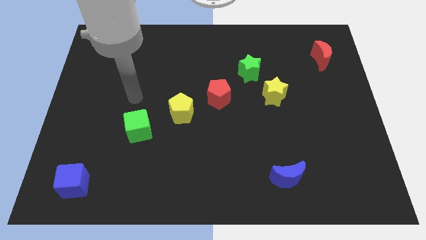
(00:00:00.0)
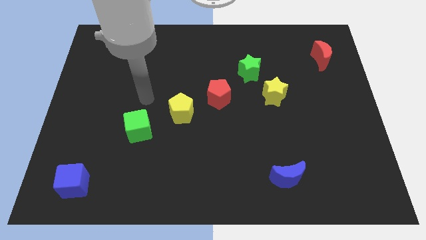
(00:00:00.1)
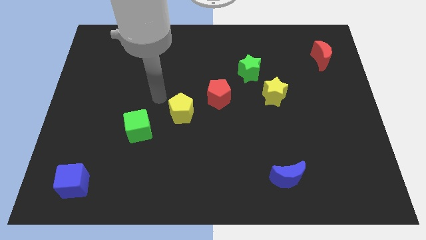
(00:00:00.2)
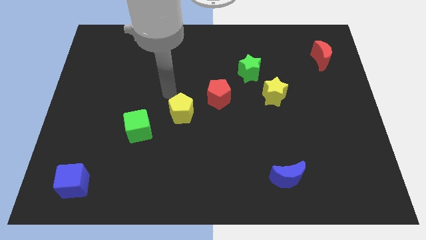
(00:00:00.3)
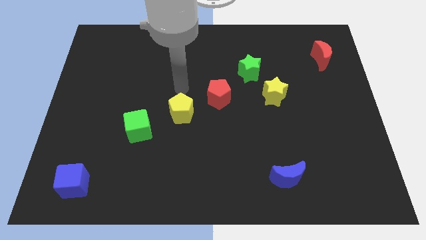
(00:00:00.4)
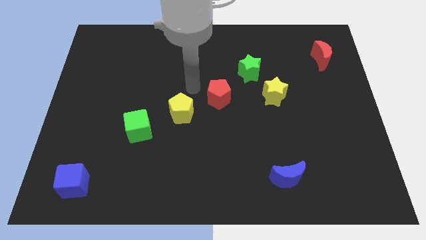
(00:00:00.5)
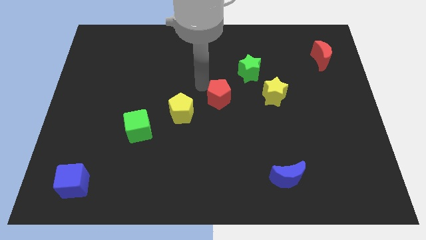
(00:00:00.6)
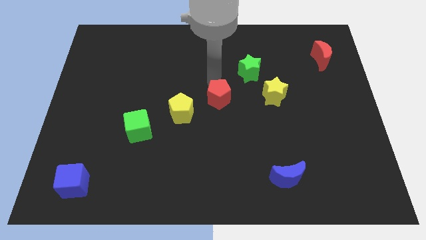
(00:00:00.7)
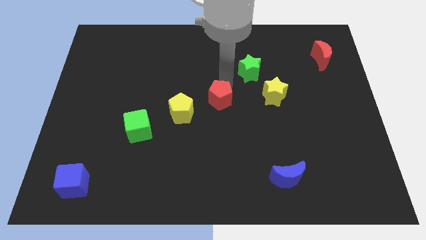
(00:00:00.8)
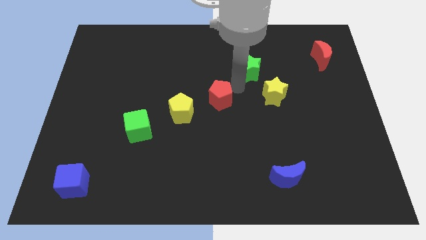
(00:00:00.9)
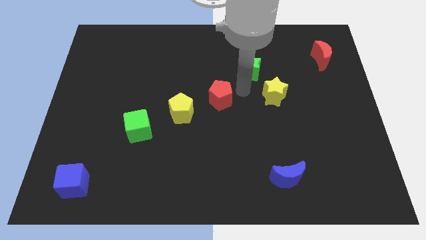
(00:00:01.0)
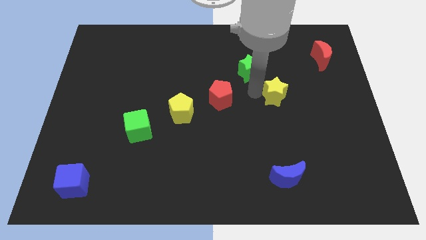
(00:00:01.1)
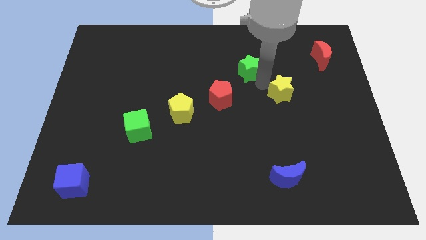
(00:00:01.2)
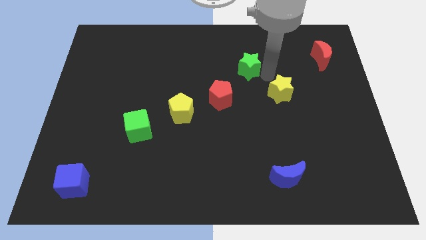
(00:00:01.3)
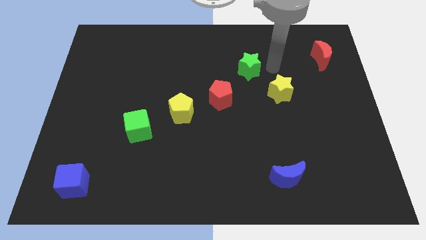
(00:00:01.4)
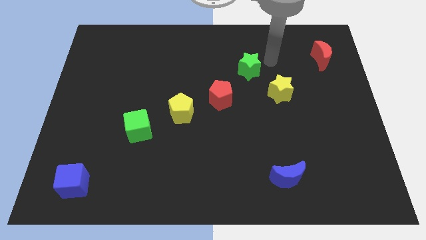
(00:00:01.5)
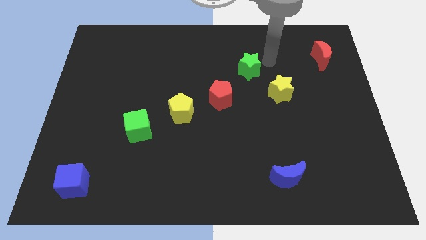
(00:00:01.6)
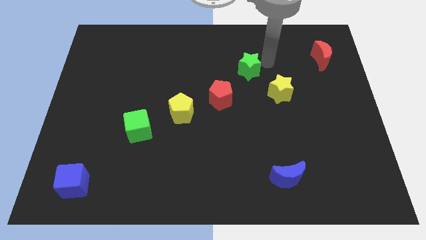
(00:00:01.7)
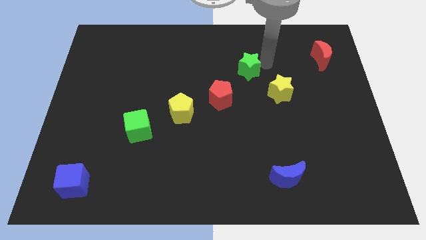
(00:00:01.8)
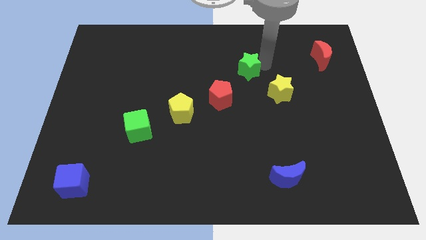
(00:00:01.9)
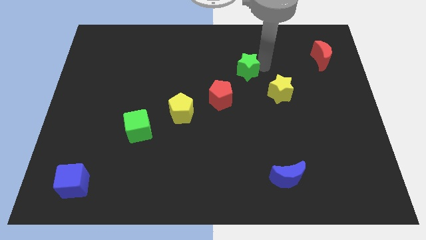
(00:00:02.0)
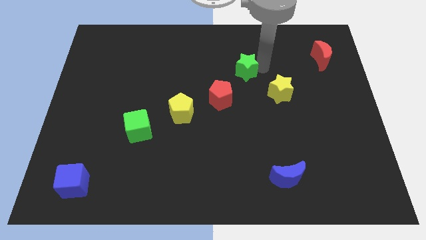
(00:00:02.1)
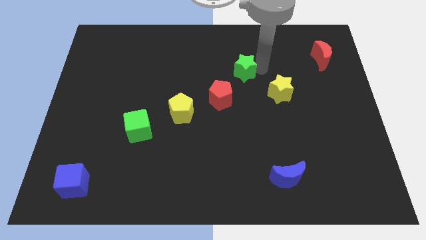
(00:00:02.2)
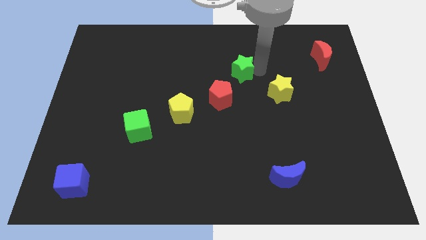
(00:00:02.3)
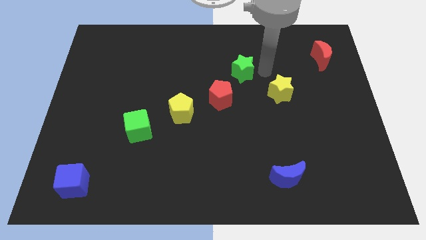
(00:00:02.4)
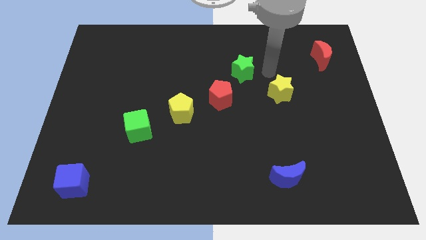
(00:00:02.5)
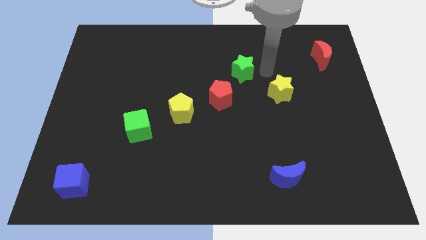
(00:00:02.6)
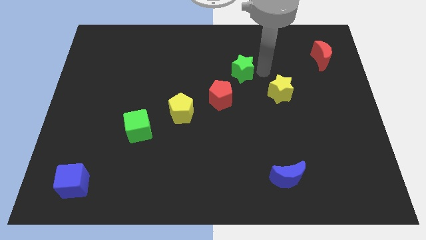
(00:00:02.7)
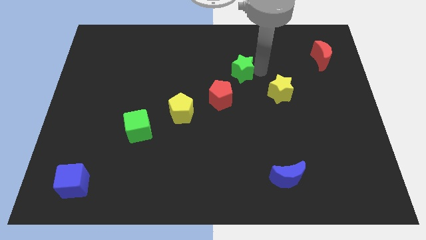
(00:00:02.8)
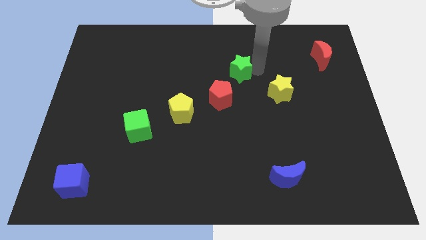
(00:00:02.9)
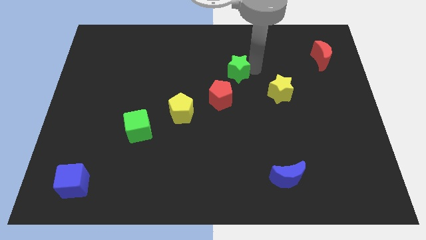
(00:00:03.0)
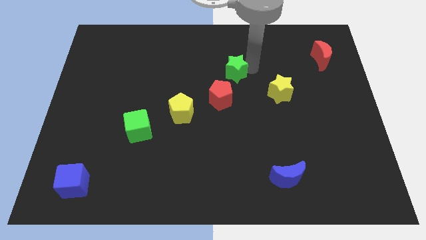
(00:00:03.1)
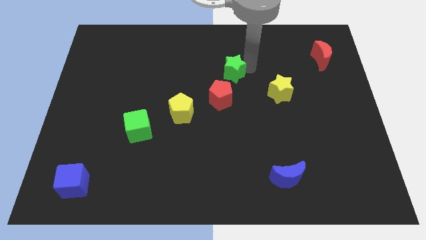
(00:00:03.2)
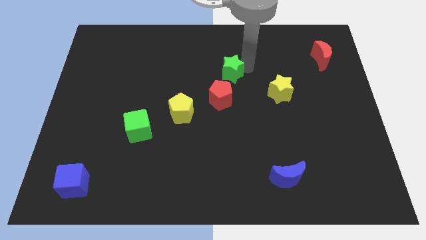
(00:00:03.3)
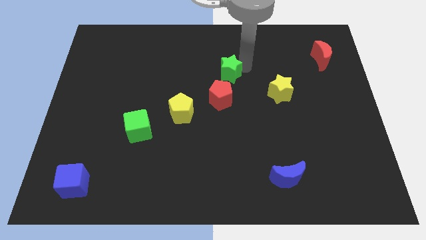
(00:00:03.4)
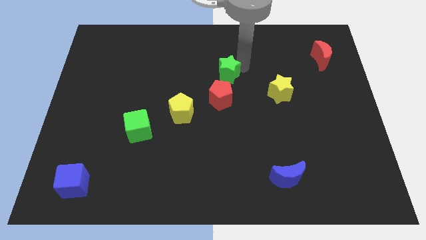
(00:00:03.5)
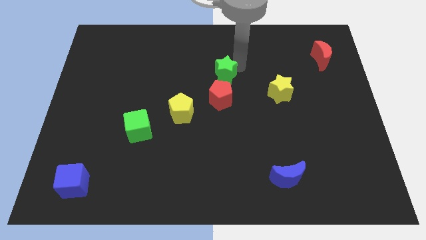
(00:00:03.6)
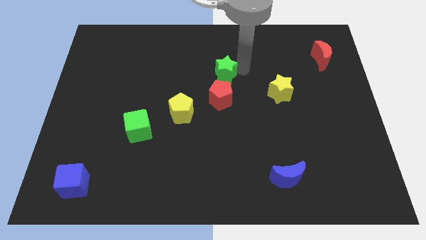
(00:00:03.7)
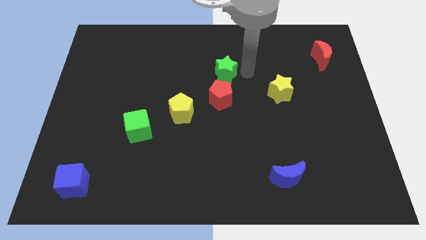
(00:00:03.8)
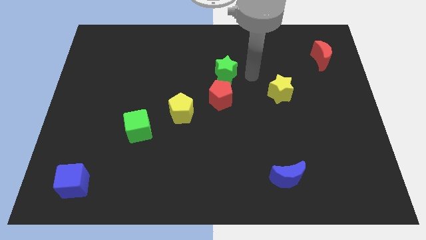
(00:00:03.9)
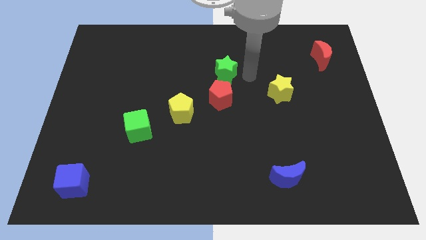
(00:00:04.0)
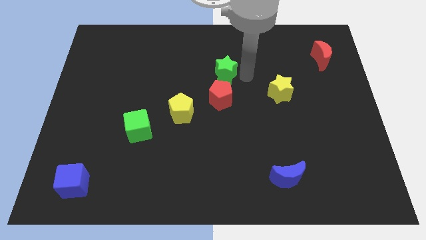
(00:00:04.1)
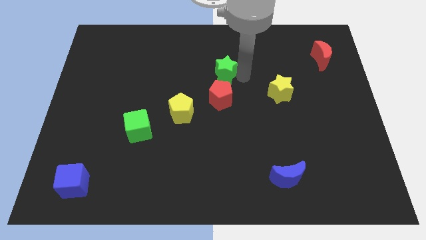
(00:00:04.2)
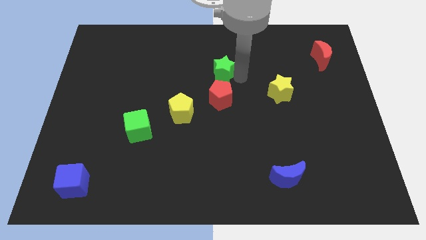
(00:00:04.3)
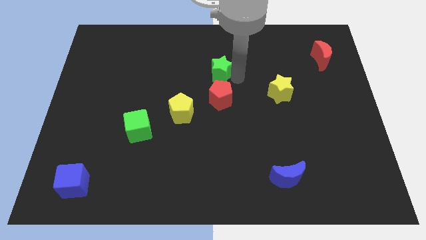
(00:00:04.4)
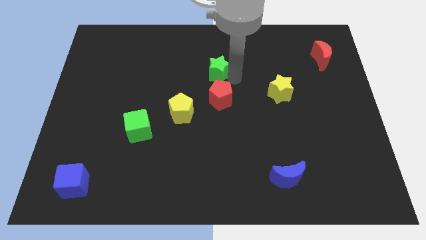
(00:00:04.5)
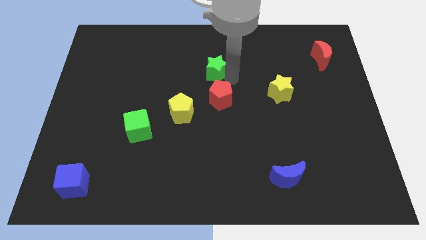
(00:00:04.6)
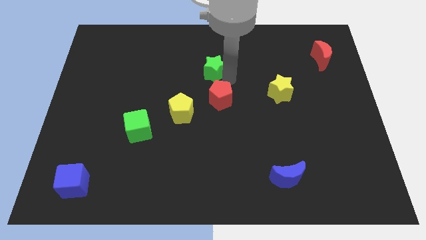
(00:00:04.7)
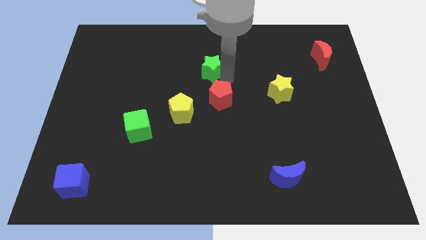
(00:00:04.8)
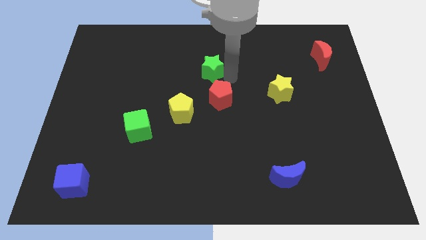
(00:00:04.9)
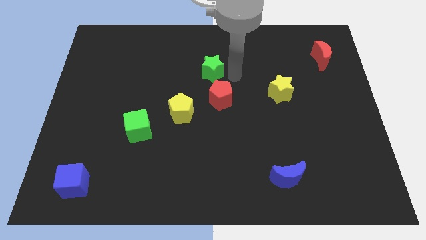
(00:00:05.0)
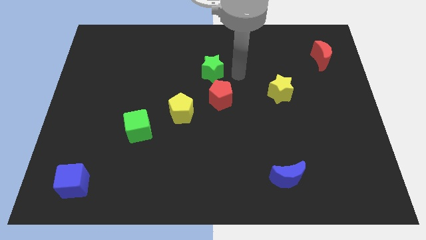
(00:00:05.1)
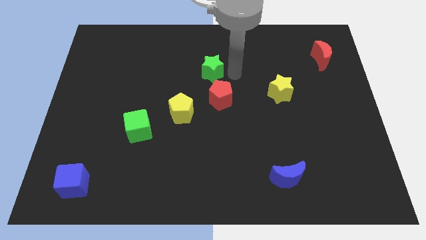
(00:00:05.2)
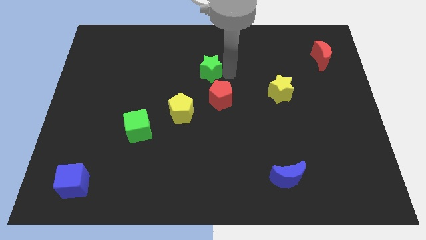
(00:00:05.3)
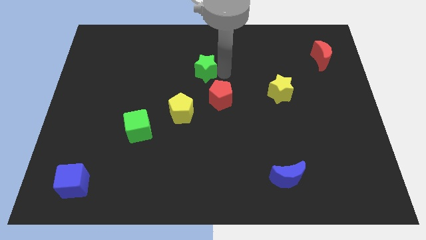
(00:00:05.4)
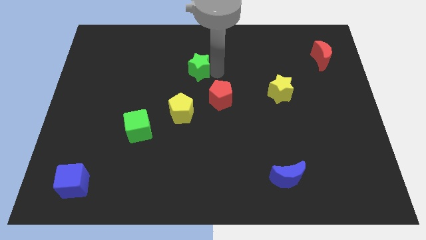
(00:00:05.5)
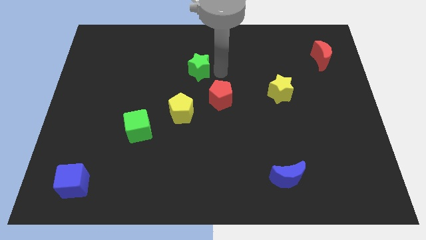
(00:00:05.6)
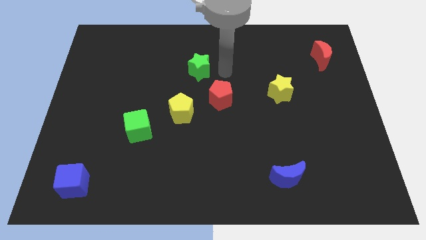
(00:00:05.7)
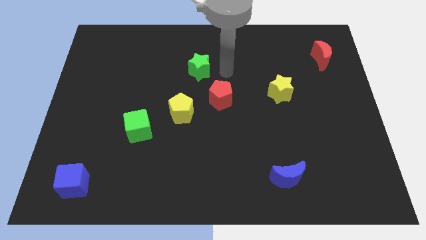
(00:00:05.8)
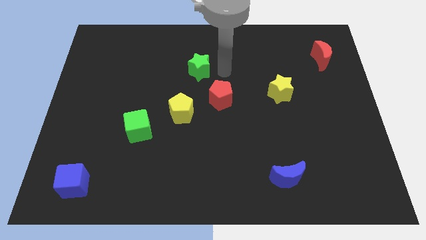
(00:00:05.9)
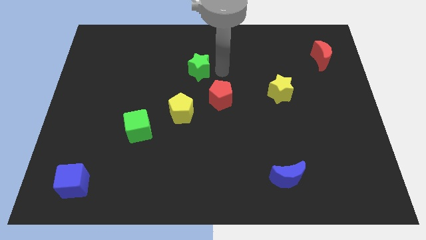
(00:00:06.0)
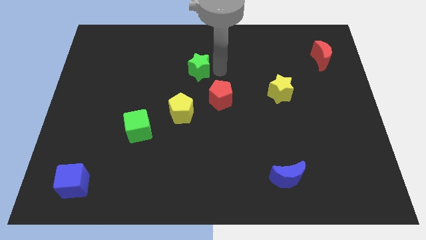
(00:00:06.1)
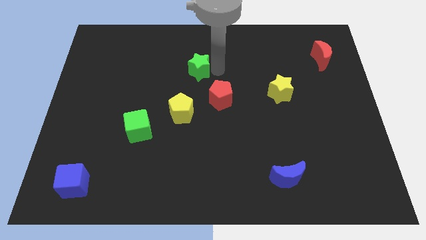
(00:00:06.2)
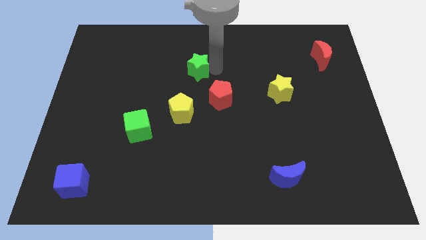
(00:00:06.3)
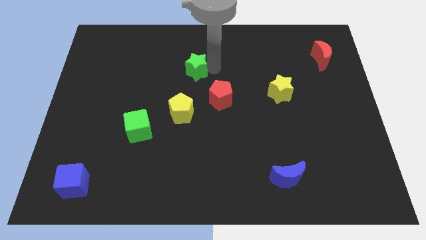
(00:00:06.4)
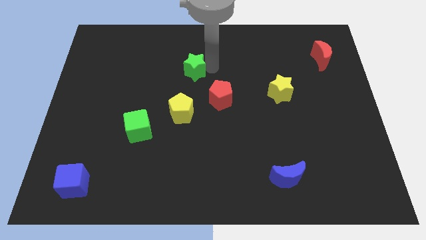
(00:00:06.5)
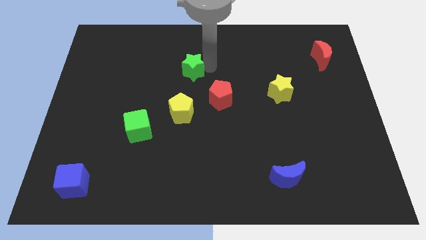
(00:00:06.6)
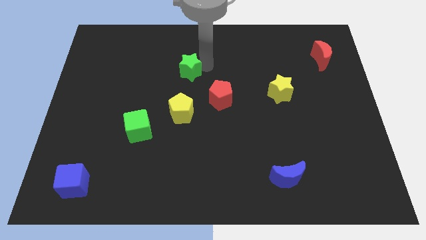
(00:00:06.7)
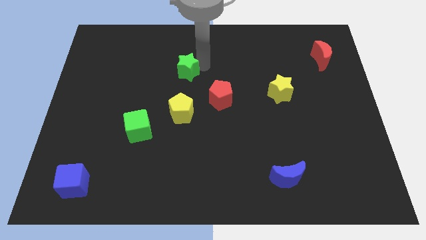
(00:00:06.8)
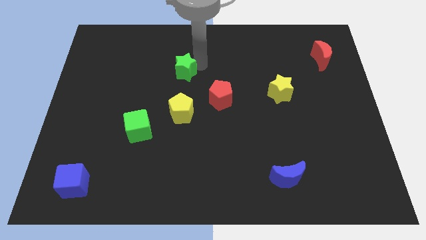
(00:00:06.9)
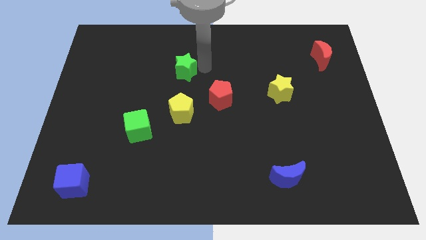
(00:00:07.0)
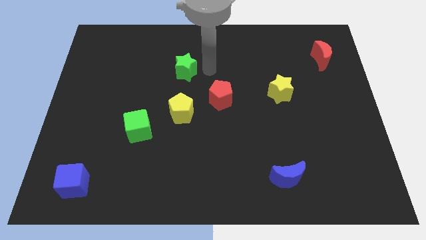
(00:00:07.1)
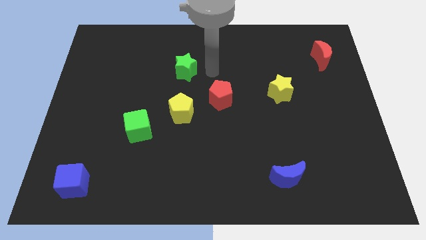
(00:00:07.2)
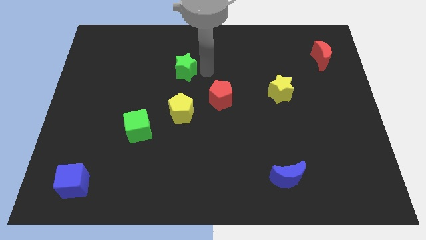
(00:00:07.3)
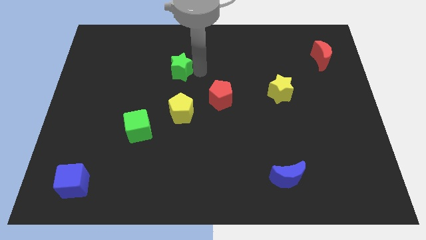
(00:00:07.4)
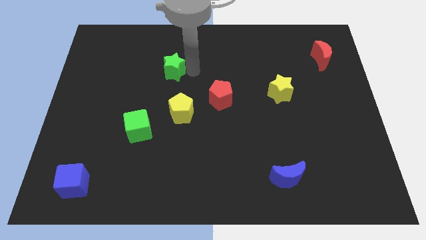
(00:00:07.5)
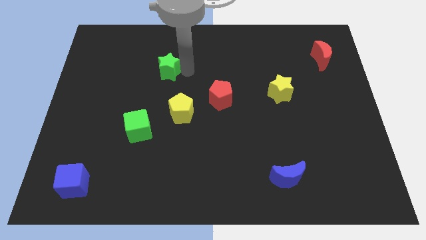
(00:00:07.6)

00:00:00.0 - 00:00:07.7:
slide the green star to the left

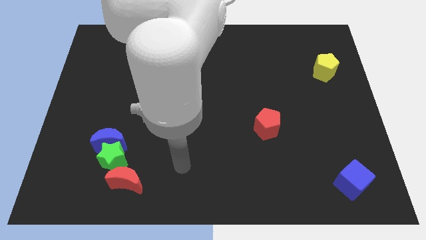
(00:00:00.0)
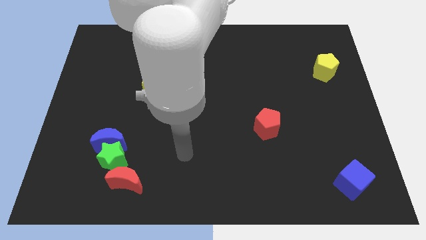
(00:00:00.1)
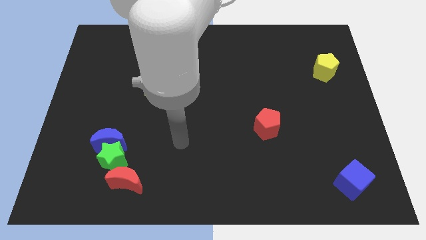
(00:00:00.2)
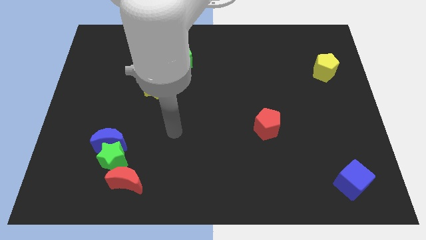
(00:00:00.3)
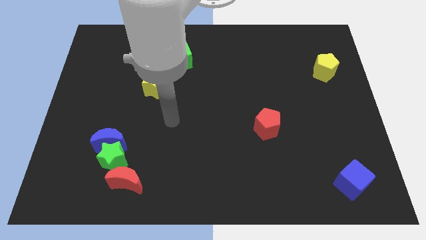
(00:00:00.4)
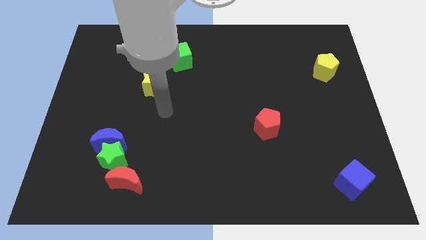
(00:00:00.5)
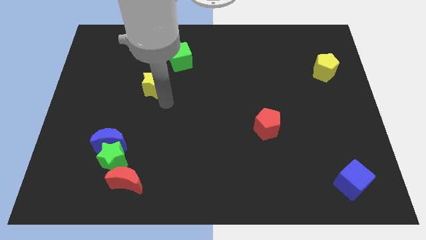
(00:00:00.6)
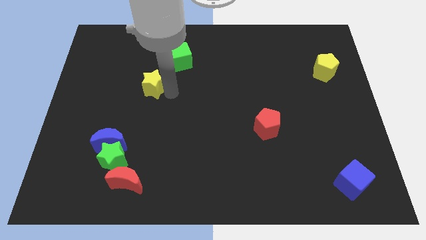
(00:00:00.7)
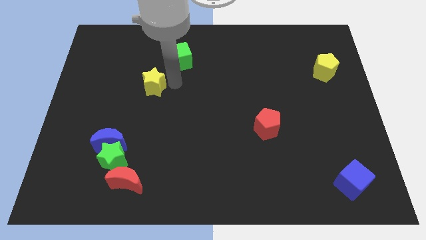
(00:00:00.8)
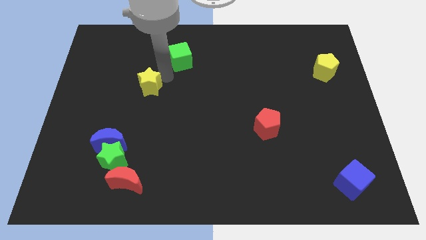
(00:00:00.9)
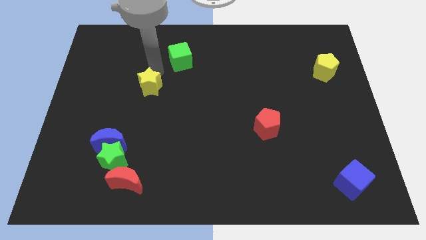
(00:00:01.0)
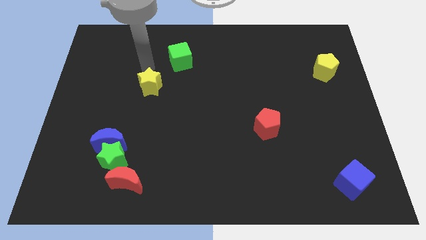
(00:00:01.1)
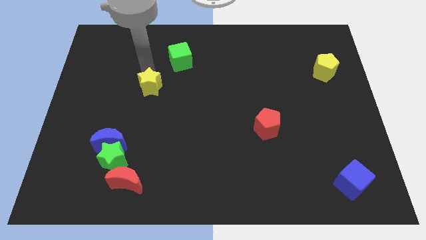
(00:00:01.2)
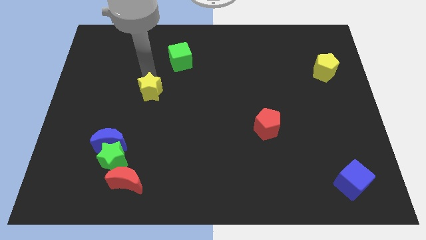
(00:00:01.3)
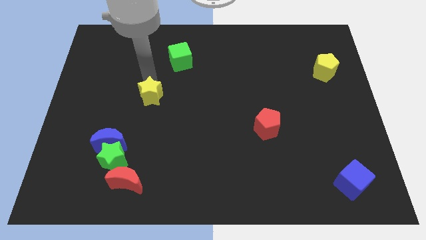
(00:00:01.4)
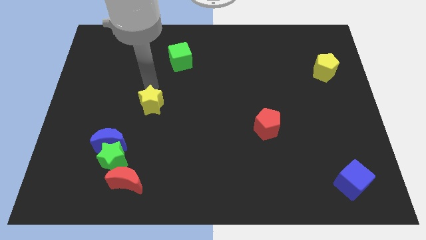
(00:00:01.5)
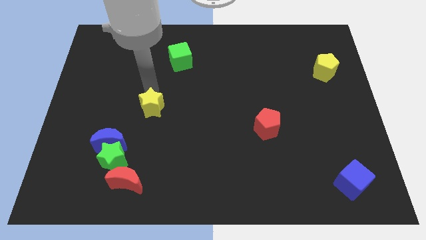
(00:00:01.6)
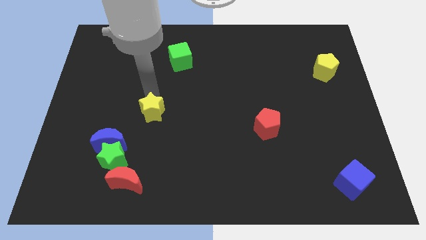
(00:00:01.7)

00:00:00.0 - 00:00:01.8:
push the yellow star down a little
